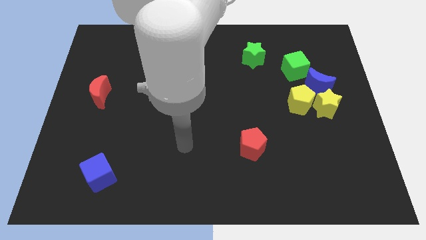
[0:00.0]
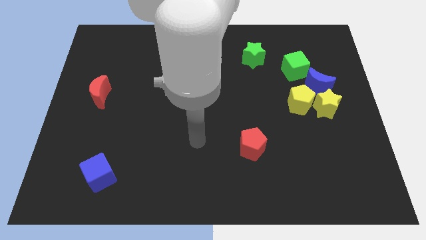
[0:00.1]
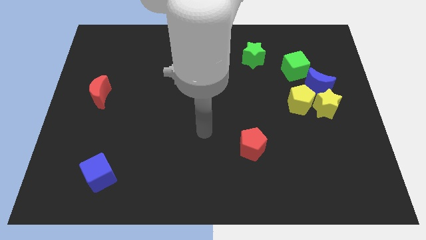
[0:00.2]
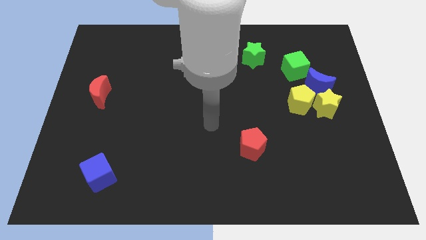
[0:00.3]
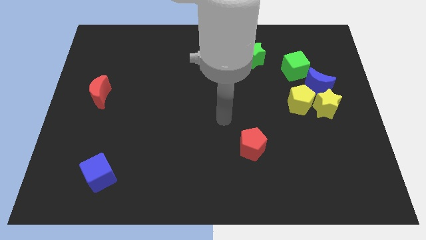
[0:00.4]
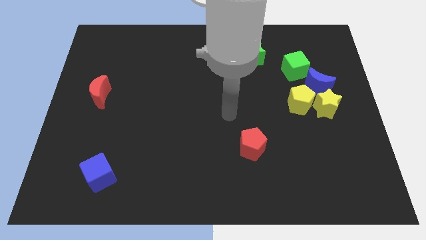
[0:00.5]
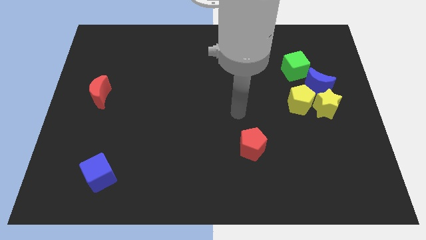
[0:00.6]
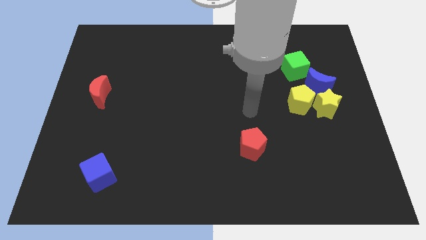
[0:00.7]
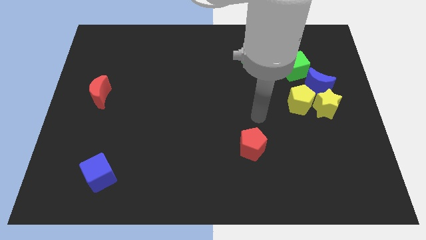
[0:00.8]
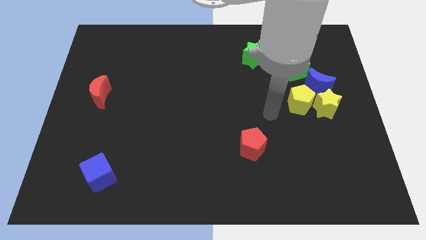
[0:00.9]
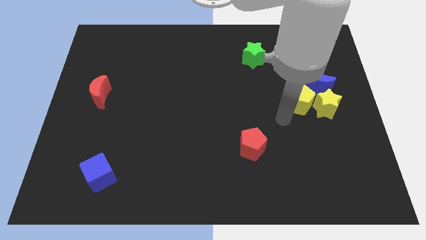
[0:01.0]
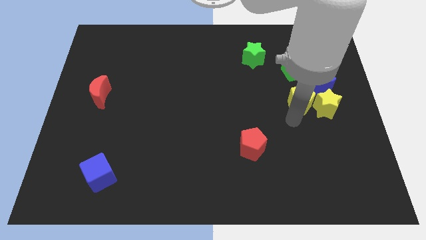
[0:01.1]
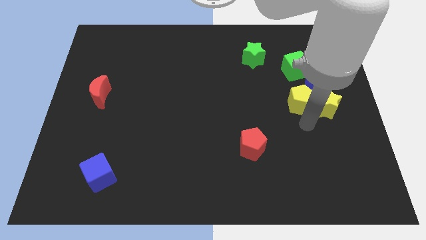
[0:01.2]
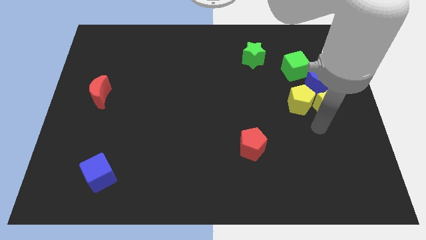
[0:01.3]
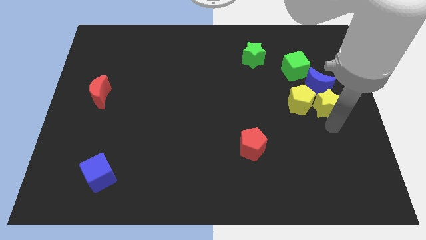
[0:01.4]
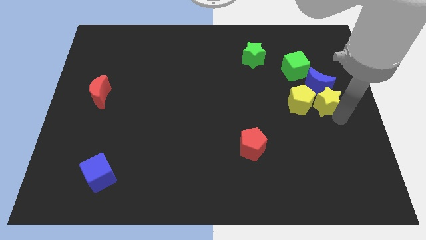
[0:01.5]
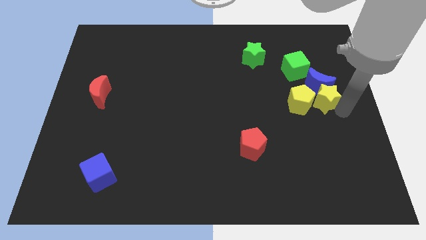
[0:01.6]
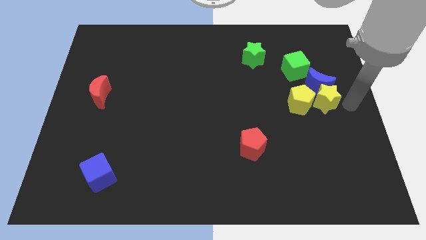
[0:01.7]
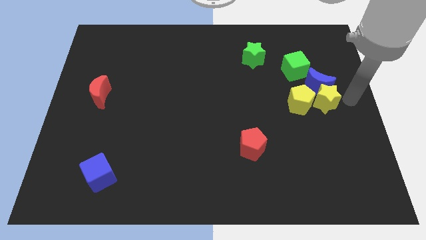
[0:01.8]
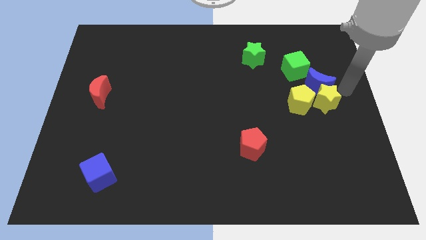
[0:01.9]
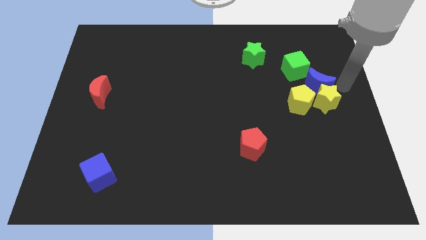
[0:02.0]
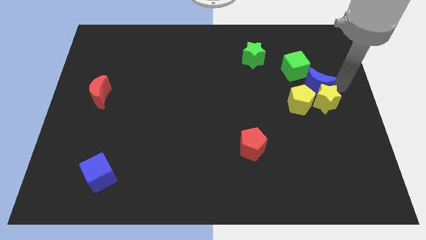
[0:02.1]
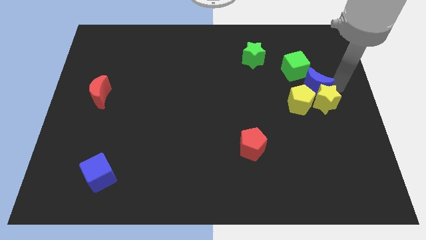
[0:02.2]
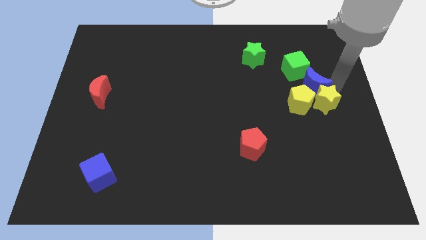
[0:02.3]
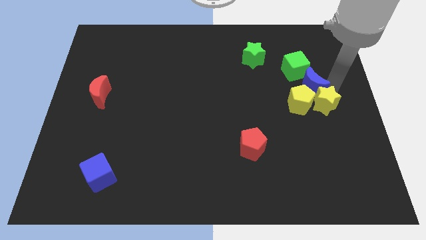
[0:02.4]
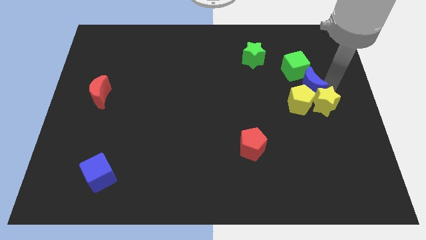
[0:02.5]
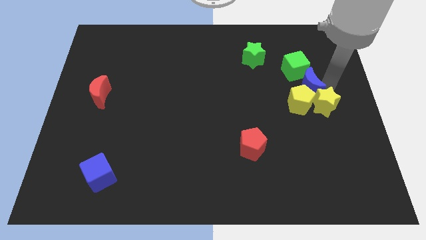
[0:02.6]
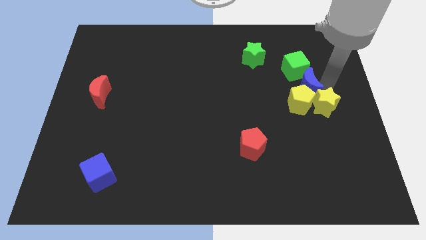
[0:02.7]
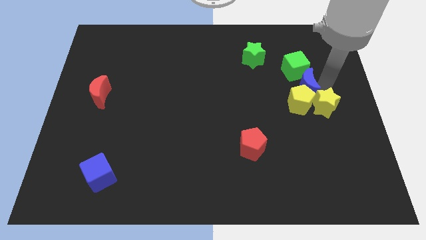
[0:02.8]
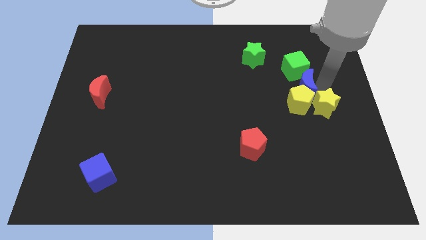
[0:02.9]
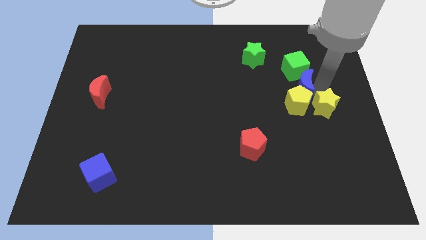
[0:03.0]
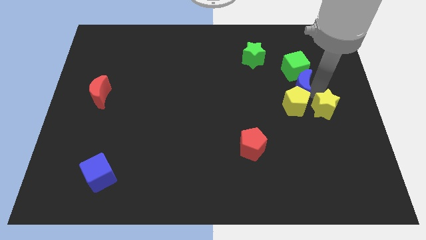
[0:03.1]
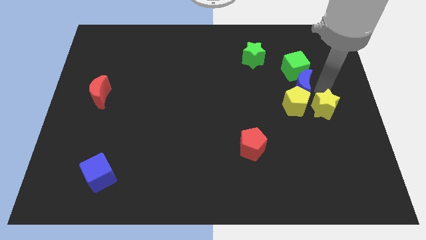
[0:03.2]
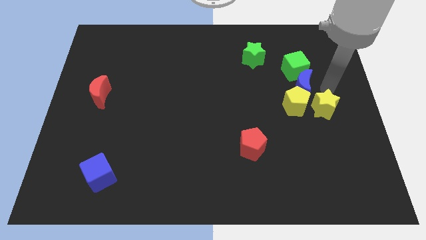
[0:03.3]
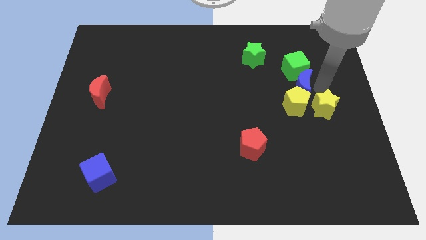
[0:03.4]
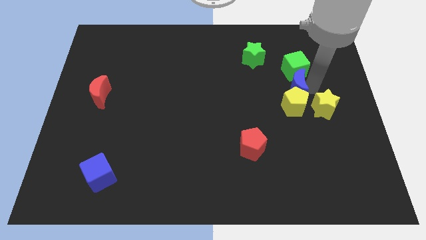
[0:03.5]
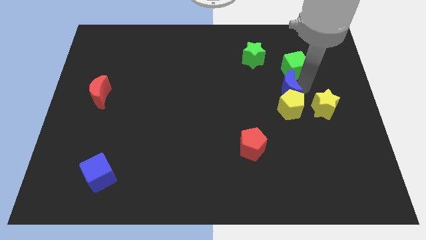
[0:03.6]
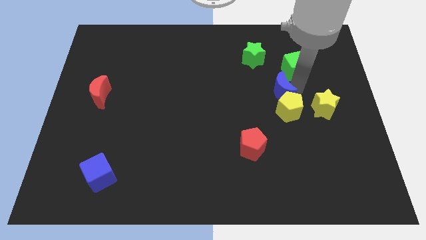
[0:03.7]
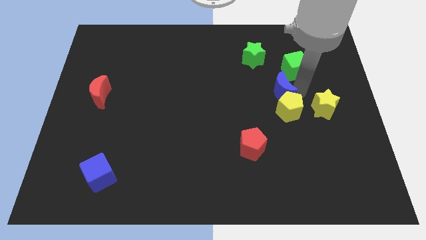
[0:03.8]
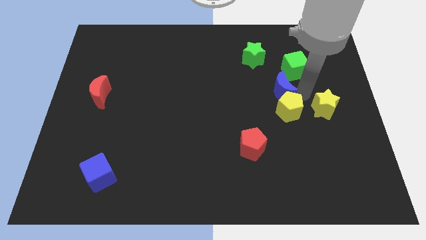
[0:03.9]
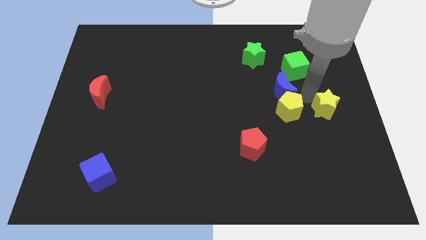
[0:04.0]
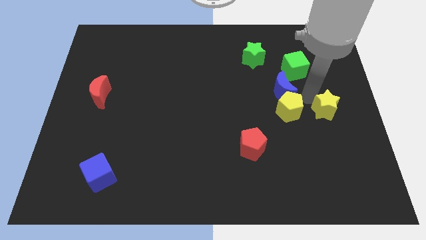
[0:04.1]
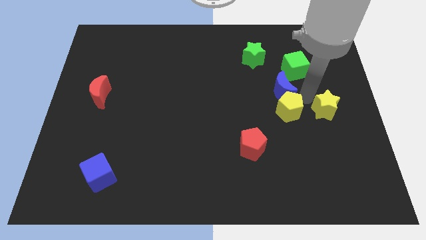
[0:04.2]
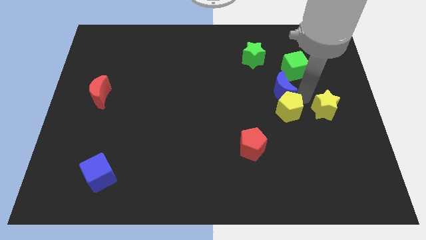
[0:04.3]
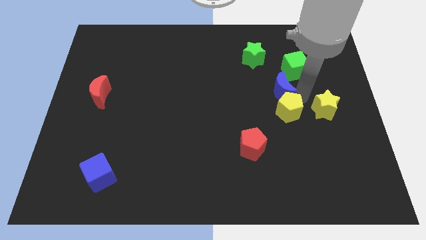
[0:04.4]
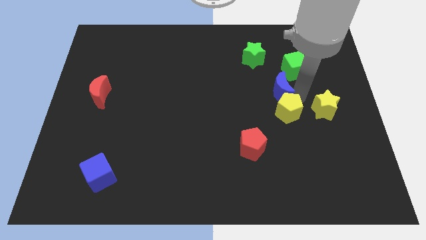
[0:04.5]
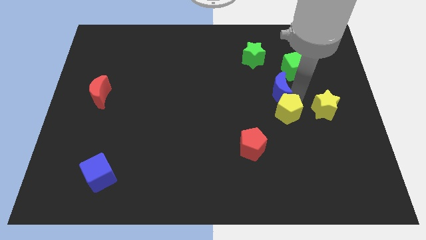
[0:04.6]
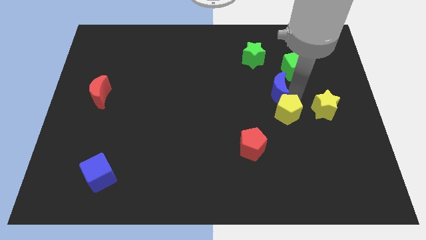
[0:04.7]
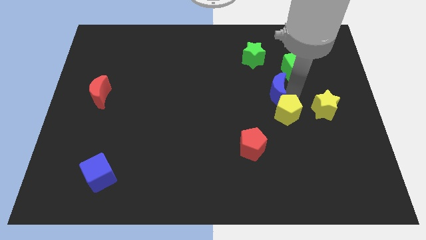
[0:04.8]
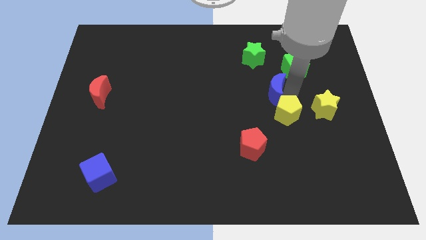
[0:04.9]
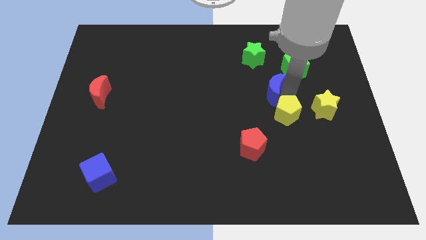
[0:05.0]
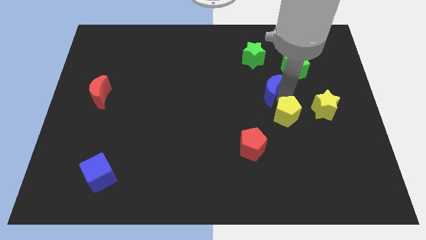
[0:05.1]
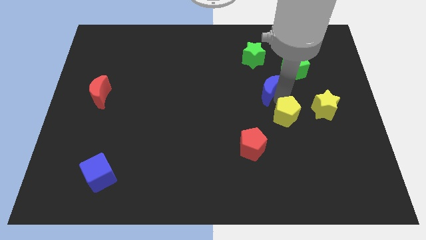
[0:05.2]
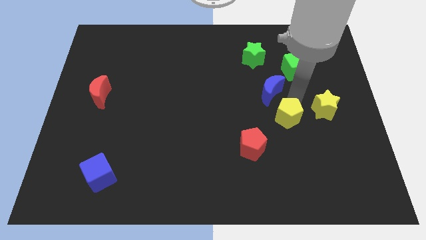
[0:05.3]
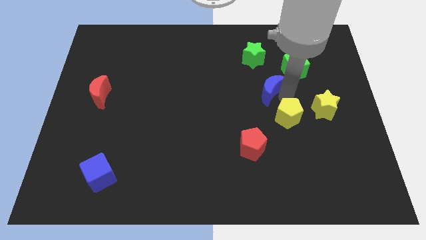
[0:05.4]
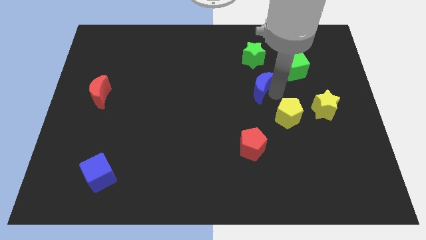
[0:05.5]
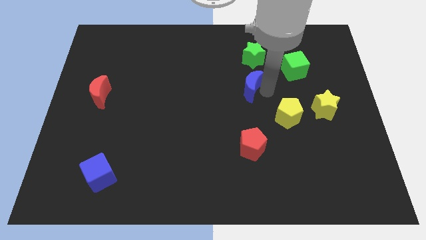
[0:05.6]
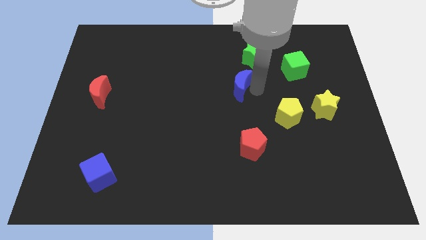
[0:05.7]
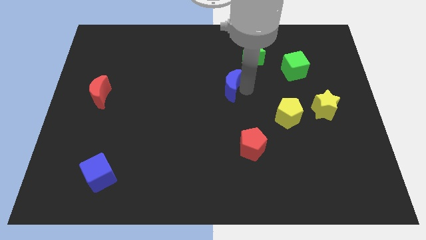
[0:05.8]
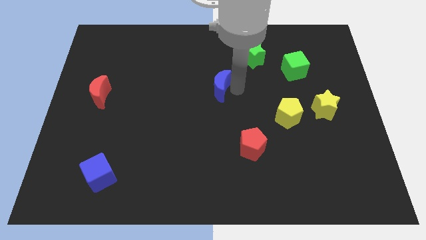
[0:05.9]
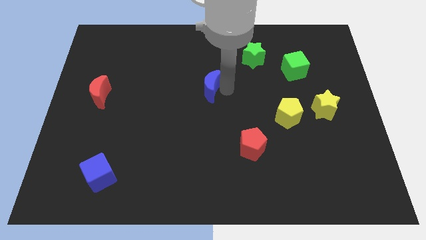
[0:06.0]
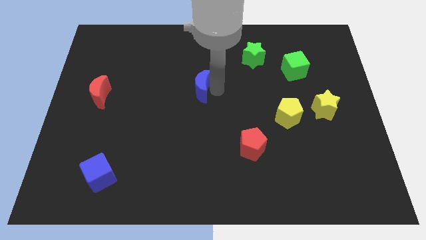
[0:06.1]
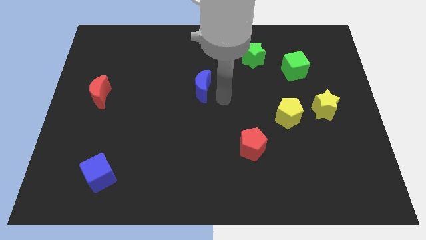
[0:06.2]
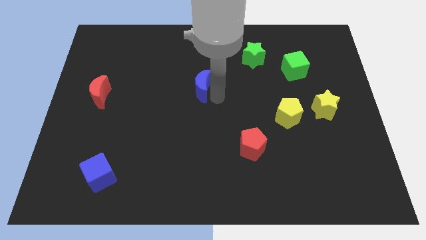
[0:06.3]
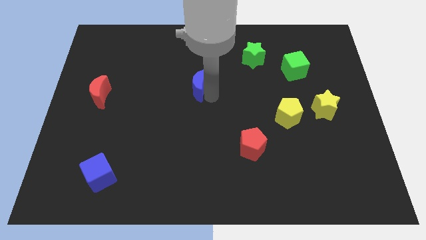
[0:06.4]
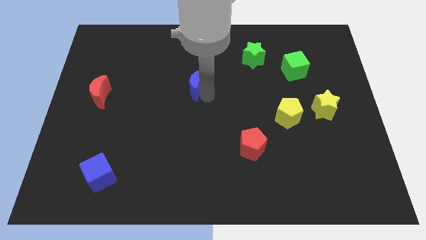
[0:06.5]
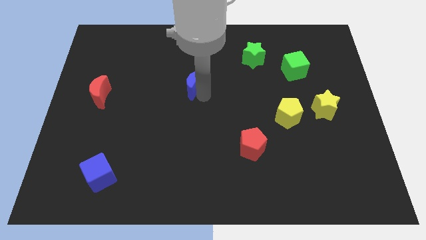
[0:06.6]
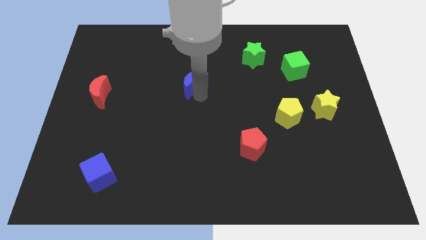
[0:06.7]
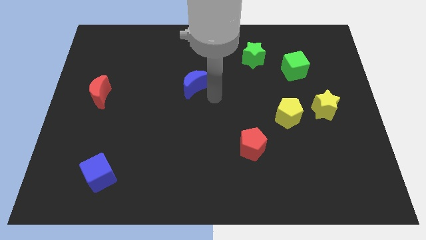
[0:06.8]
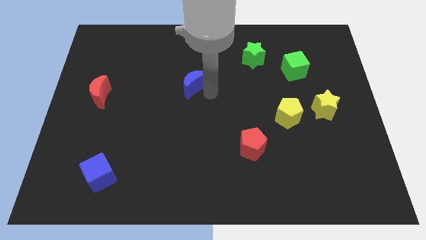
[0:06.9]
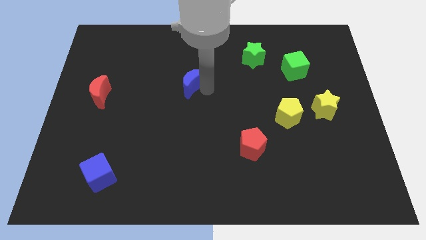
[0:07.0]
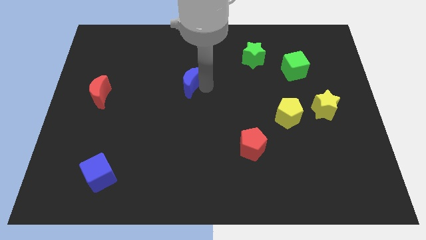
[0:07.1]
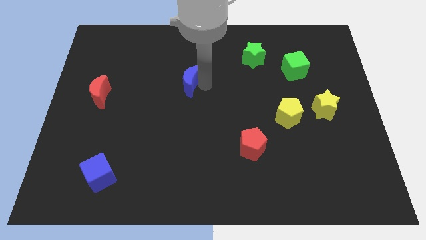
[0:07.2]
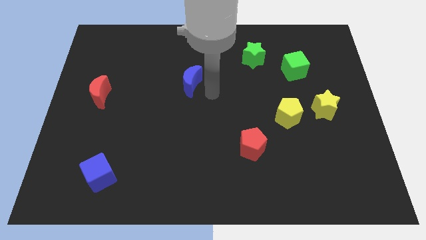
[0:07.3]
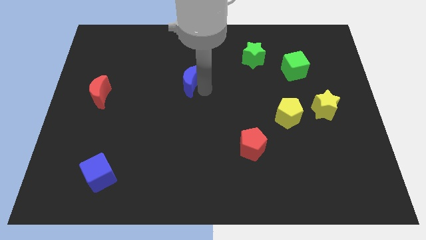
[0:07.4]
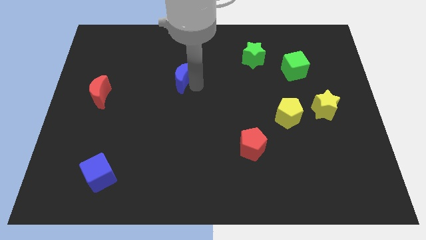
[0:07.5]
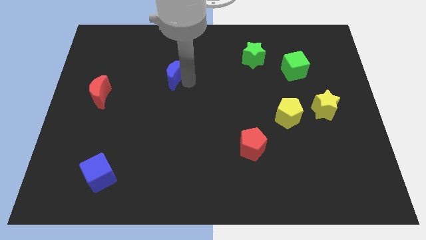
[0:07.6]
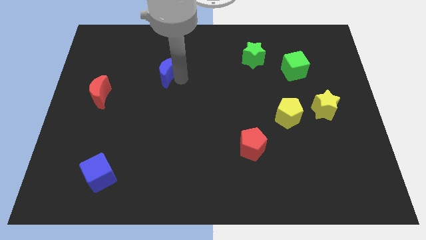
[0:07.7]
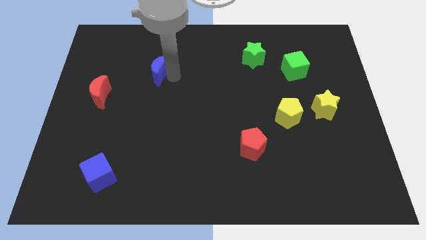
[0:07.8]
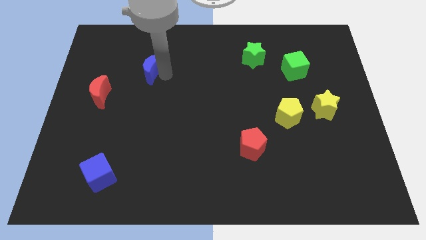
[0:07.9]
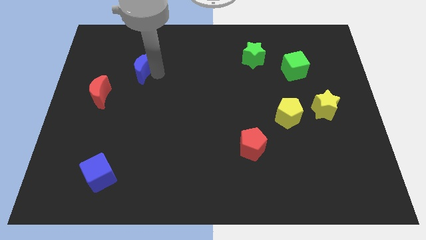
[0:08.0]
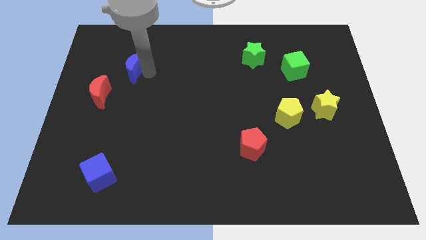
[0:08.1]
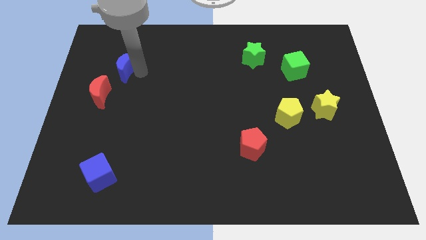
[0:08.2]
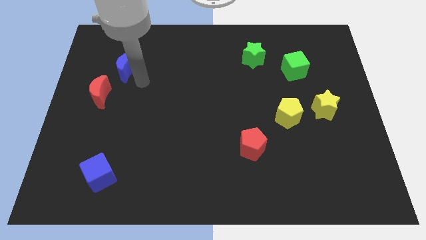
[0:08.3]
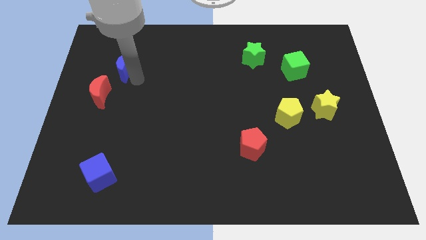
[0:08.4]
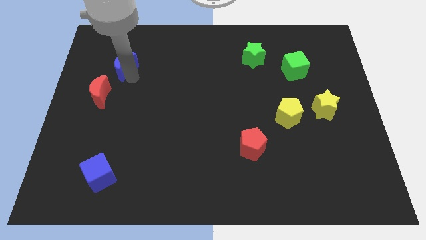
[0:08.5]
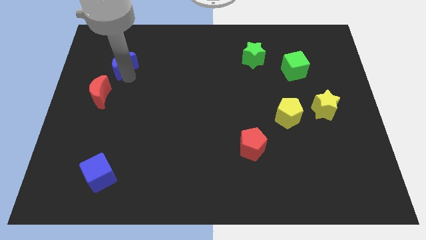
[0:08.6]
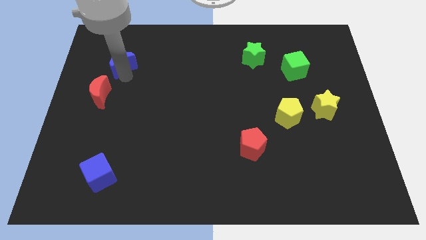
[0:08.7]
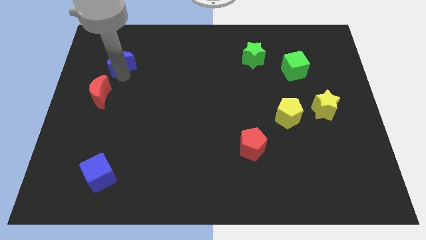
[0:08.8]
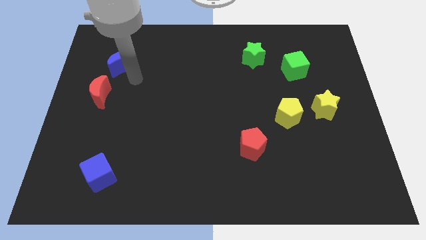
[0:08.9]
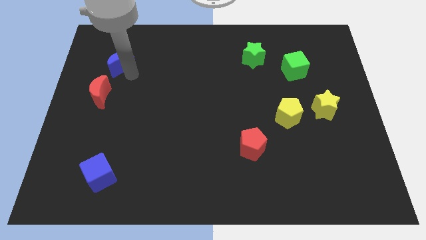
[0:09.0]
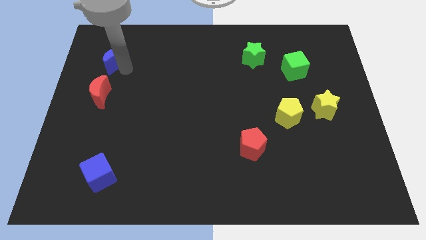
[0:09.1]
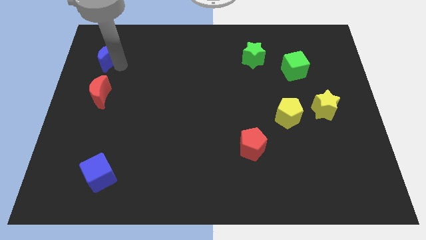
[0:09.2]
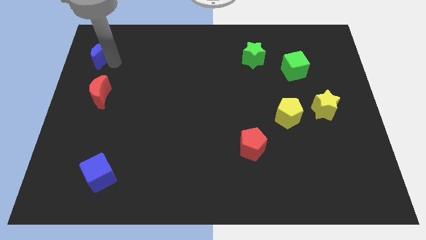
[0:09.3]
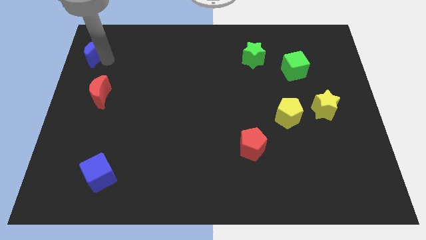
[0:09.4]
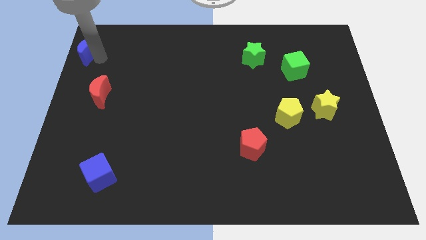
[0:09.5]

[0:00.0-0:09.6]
slide the blue moon to the top left of the board
